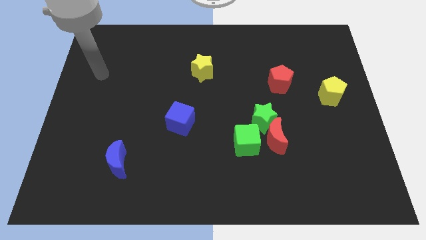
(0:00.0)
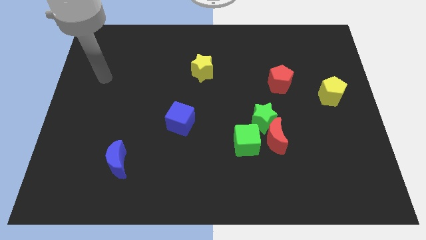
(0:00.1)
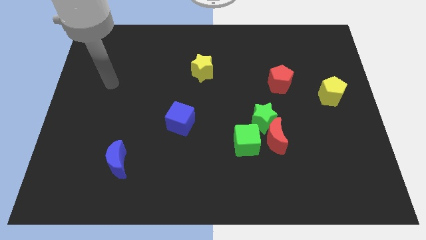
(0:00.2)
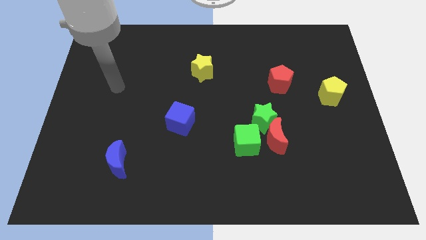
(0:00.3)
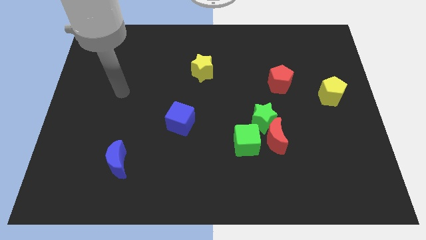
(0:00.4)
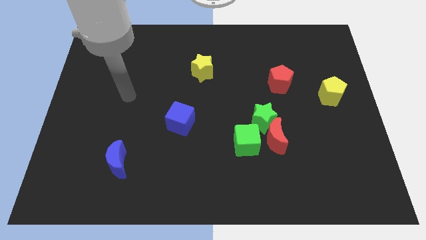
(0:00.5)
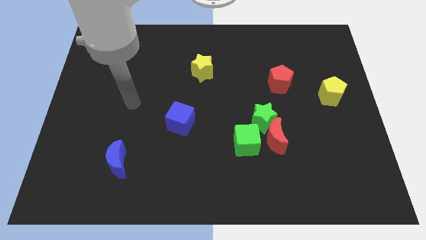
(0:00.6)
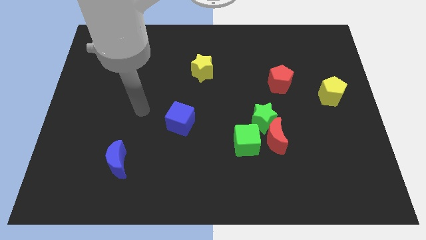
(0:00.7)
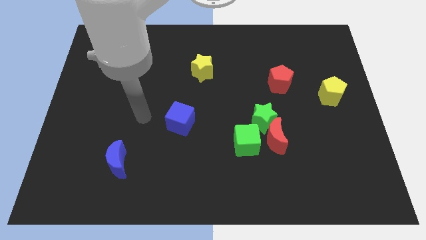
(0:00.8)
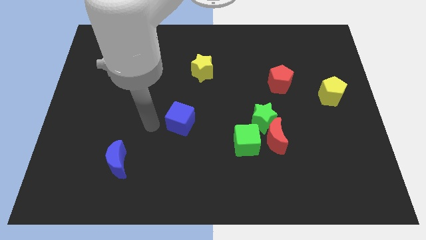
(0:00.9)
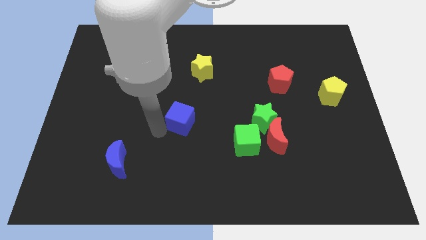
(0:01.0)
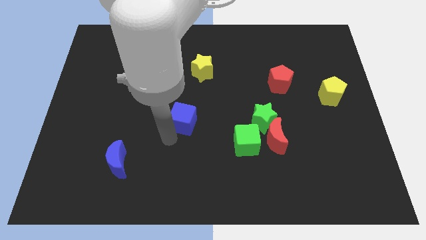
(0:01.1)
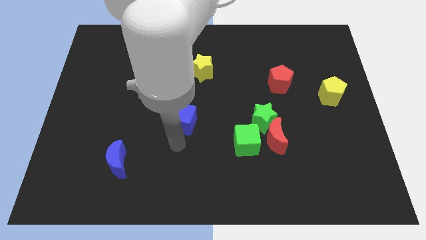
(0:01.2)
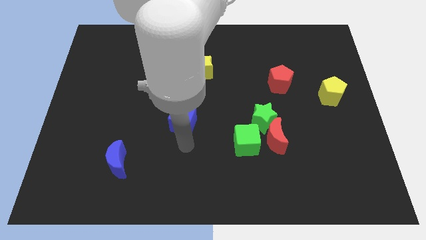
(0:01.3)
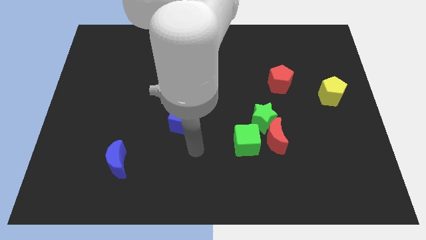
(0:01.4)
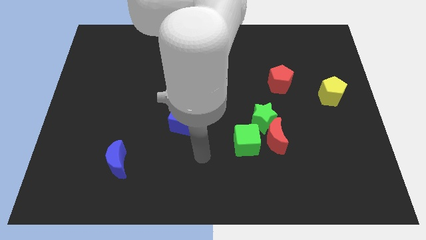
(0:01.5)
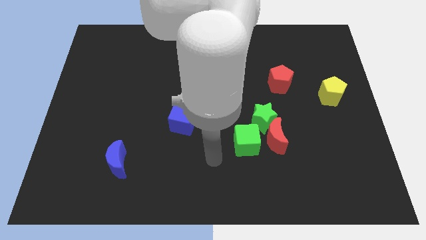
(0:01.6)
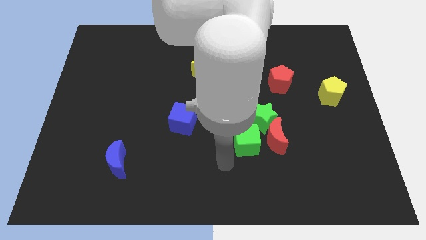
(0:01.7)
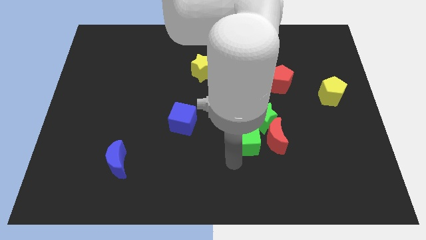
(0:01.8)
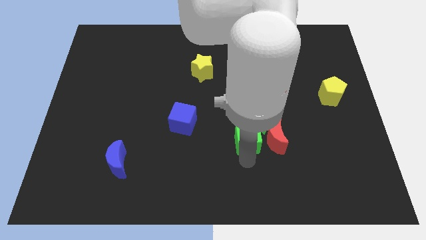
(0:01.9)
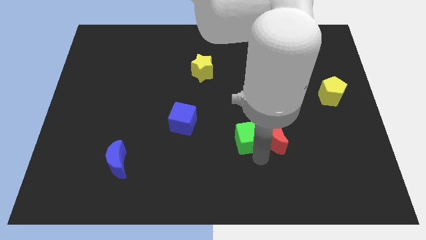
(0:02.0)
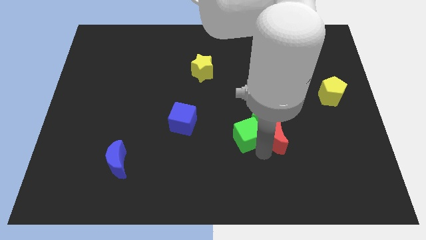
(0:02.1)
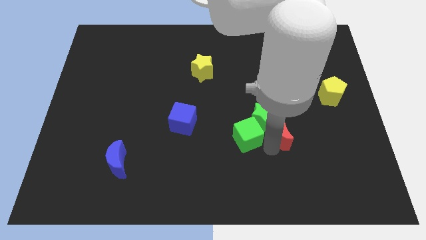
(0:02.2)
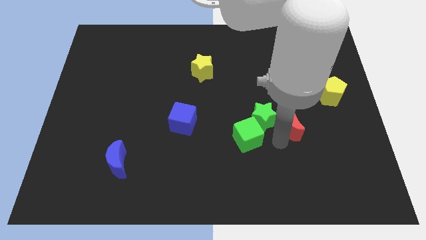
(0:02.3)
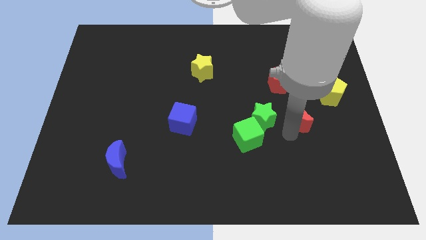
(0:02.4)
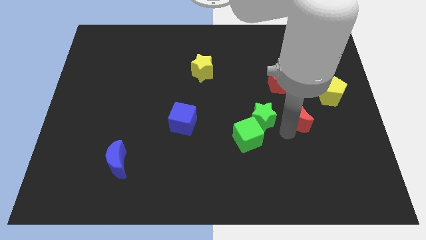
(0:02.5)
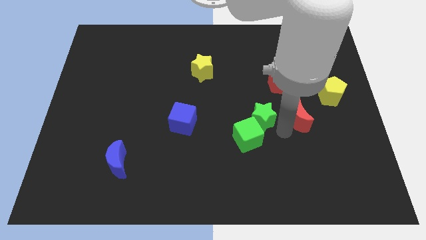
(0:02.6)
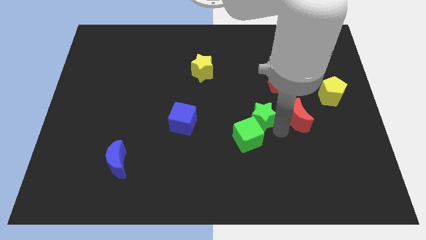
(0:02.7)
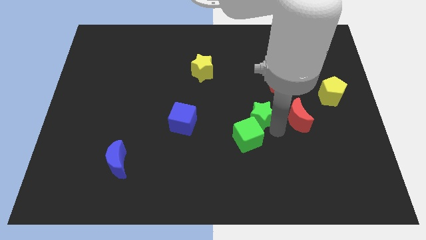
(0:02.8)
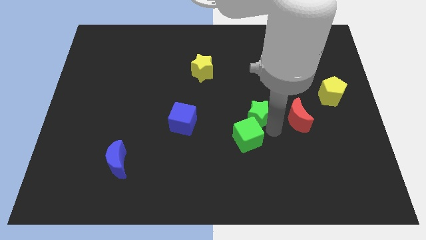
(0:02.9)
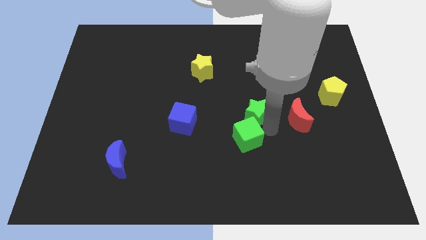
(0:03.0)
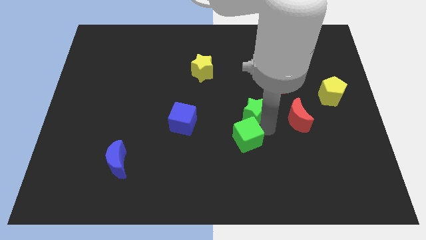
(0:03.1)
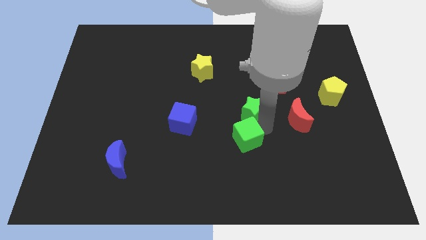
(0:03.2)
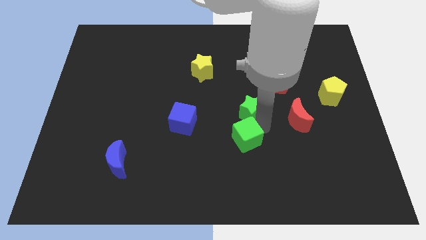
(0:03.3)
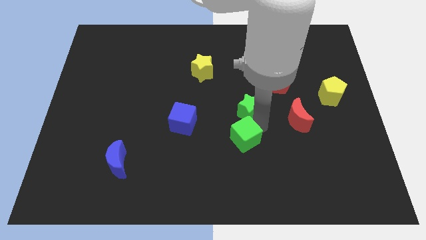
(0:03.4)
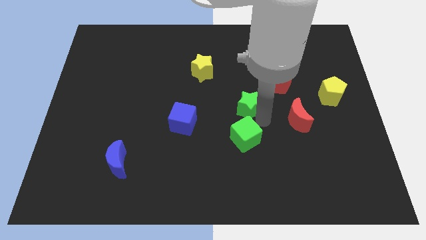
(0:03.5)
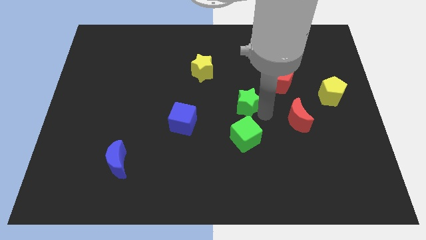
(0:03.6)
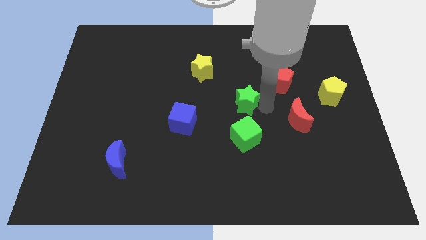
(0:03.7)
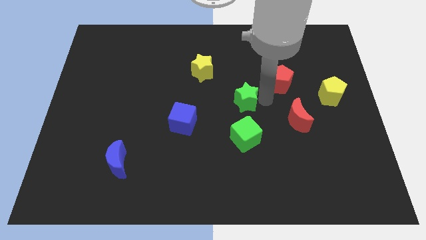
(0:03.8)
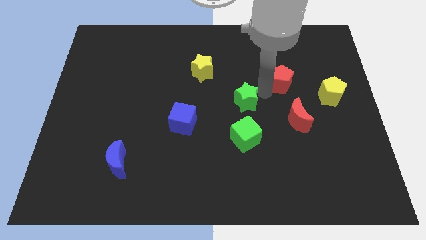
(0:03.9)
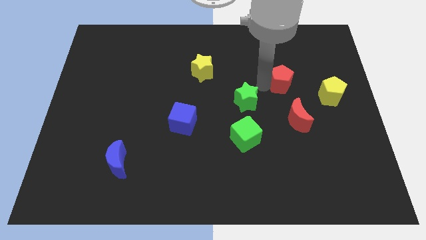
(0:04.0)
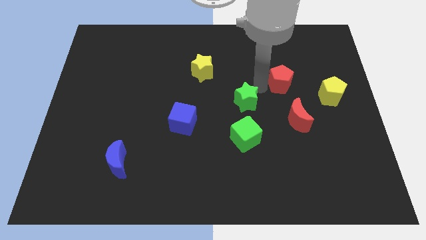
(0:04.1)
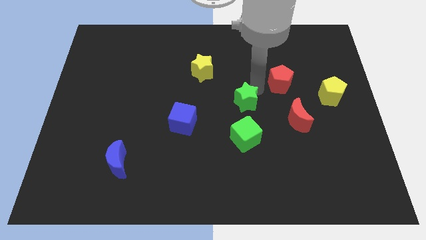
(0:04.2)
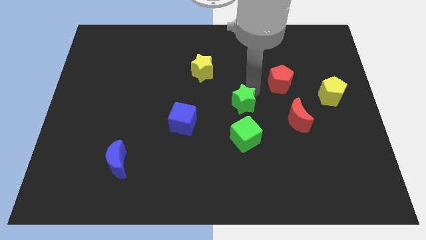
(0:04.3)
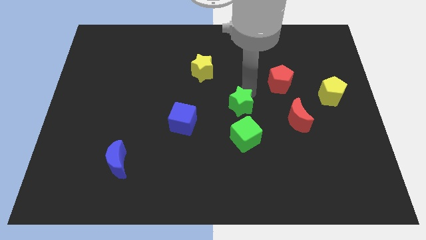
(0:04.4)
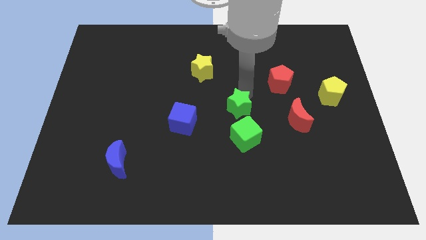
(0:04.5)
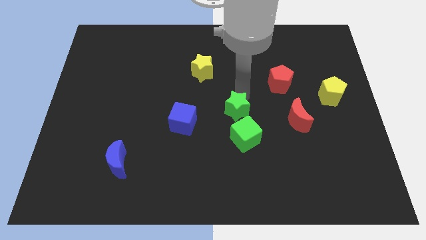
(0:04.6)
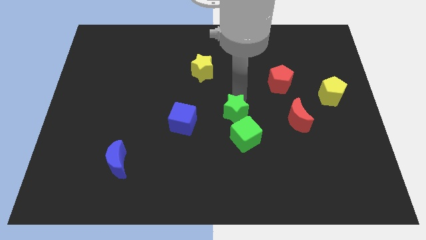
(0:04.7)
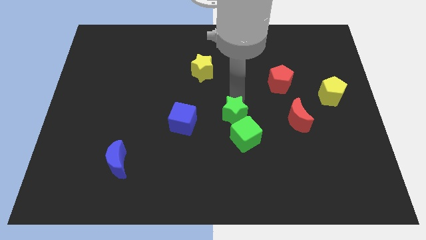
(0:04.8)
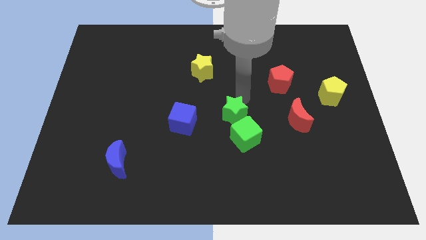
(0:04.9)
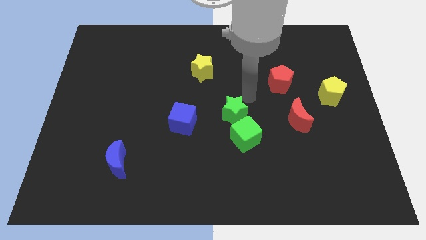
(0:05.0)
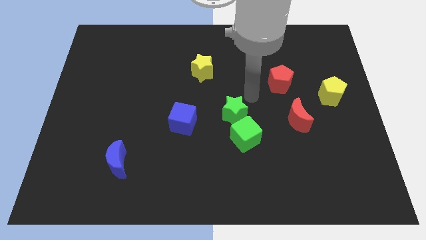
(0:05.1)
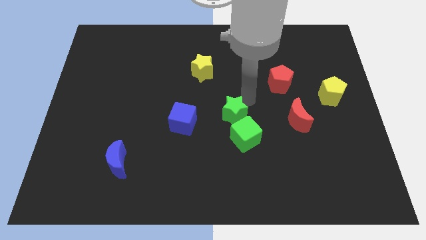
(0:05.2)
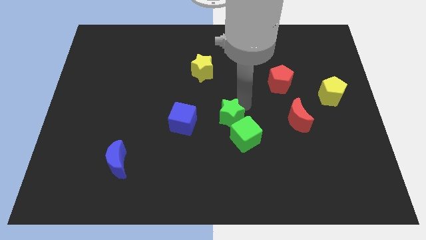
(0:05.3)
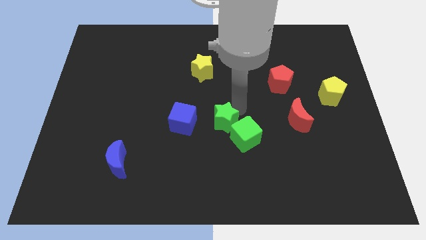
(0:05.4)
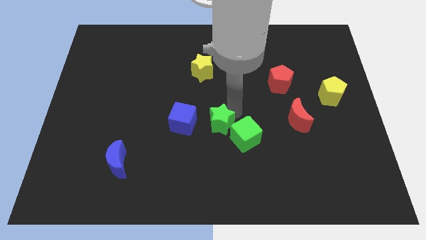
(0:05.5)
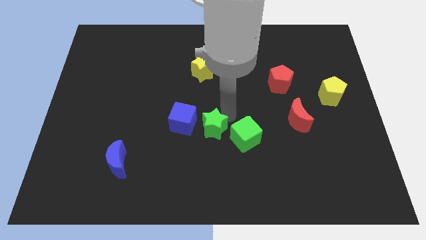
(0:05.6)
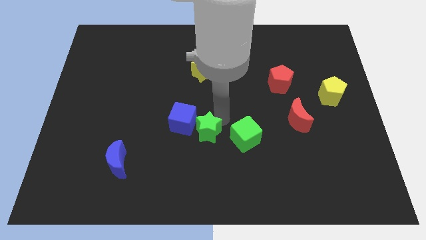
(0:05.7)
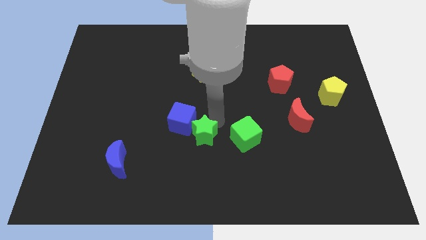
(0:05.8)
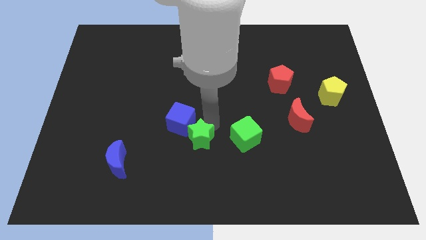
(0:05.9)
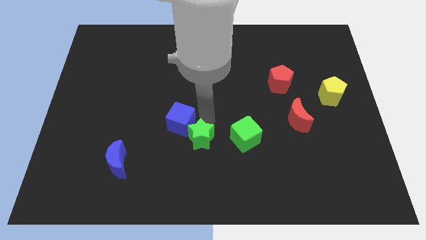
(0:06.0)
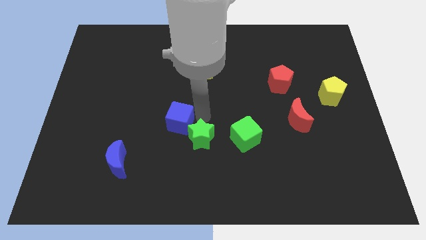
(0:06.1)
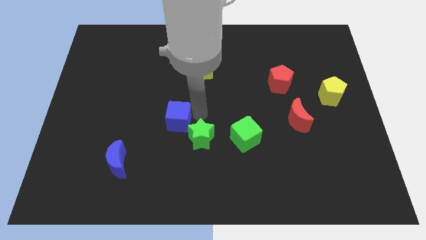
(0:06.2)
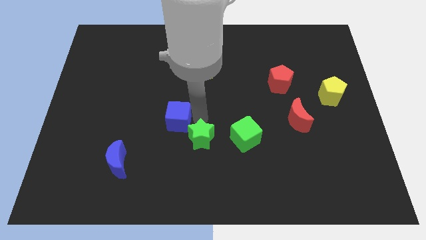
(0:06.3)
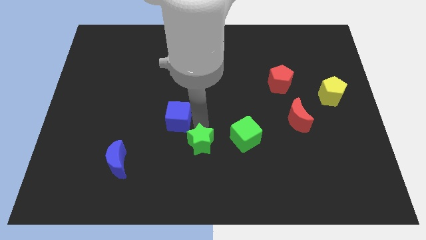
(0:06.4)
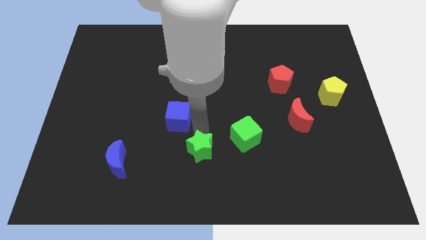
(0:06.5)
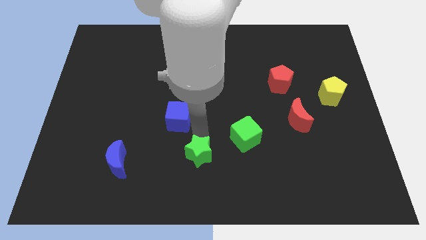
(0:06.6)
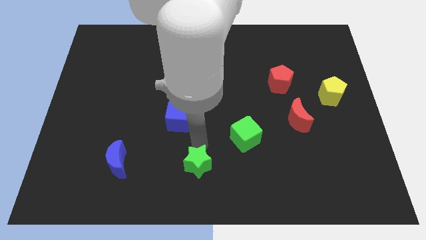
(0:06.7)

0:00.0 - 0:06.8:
put the green star to the bottom side

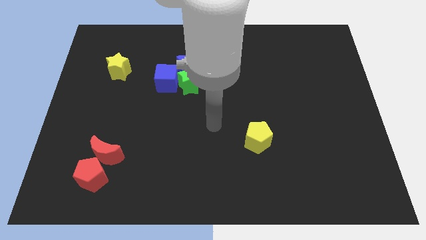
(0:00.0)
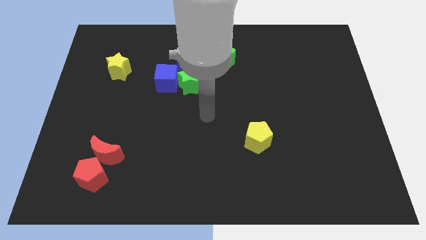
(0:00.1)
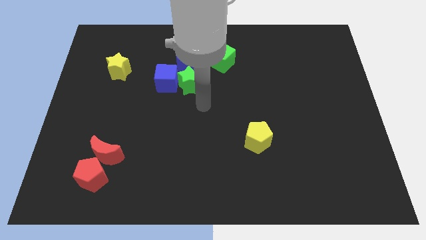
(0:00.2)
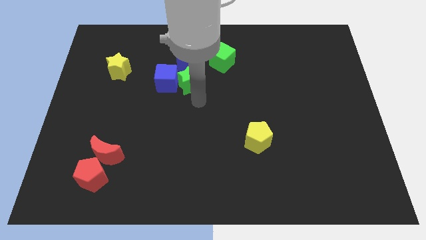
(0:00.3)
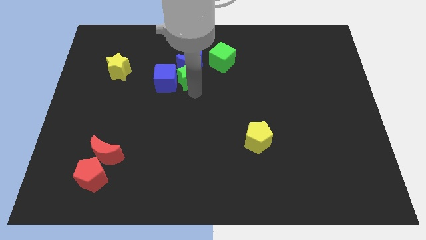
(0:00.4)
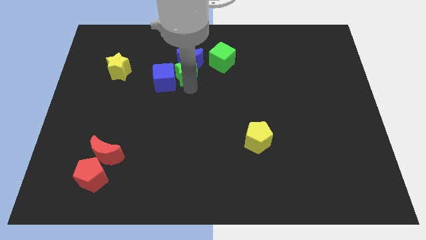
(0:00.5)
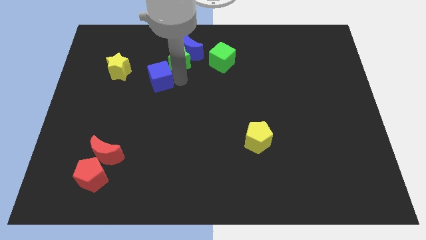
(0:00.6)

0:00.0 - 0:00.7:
put the blue moon to the top
